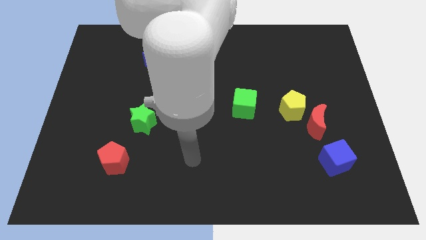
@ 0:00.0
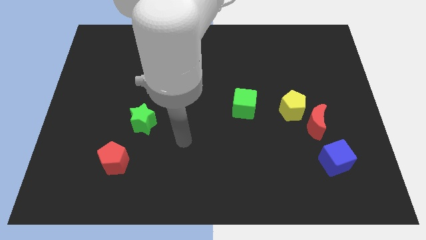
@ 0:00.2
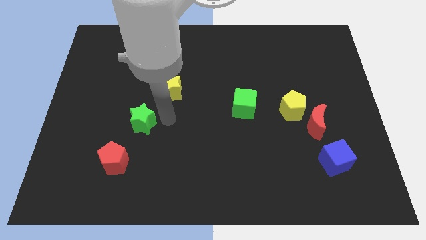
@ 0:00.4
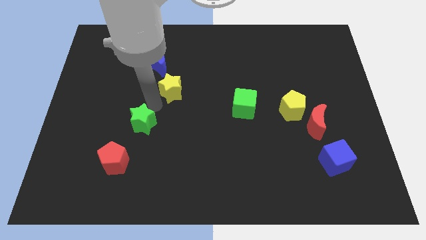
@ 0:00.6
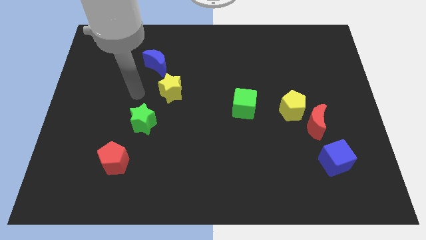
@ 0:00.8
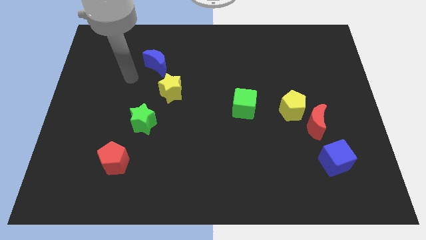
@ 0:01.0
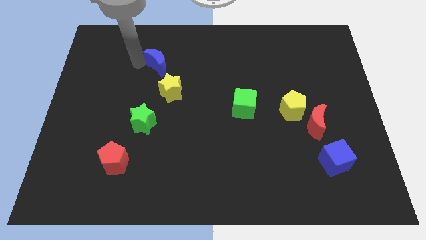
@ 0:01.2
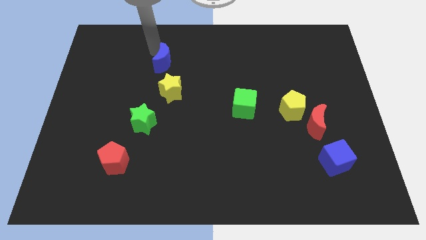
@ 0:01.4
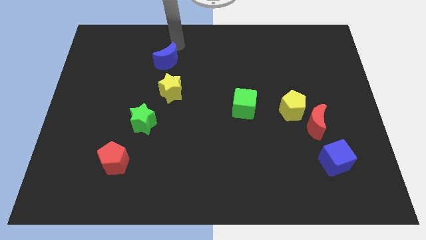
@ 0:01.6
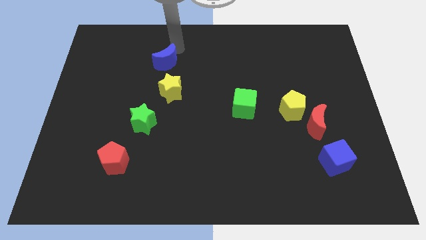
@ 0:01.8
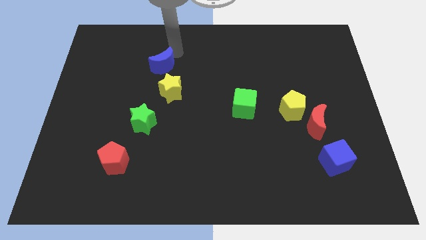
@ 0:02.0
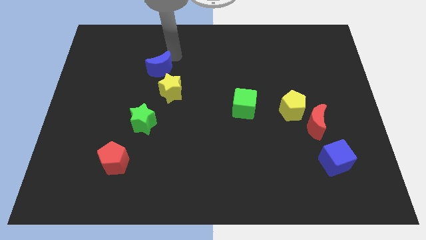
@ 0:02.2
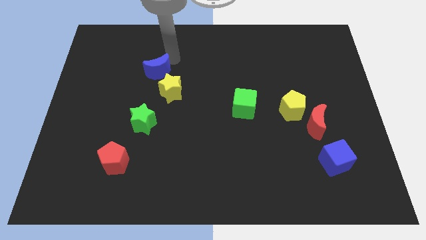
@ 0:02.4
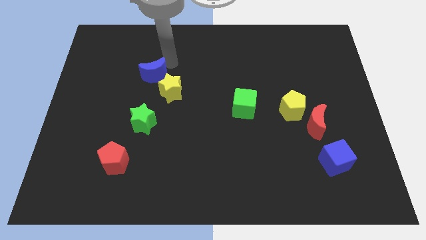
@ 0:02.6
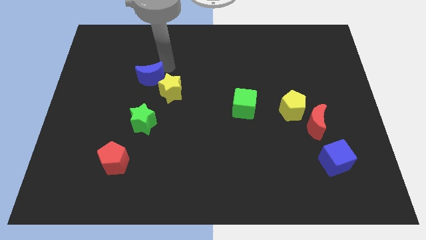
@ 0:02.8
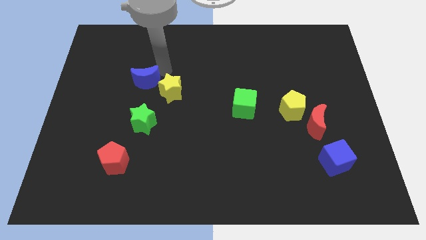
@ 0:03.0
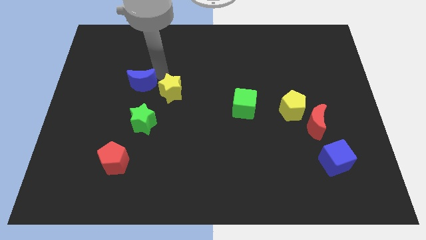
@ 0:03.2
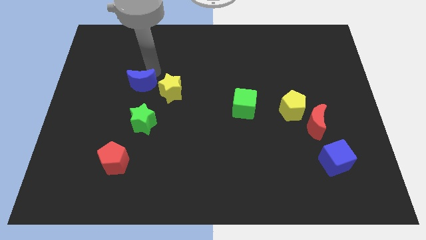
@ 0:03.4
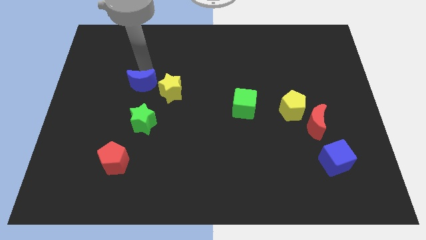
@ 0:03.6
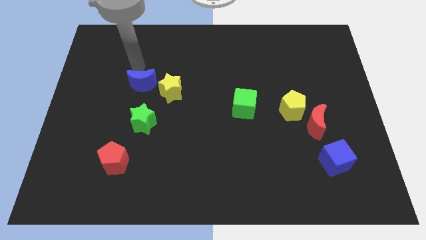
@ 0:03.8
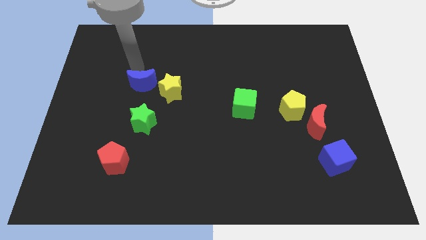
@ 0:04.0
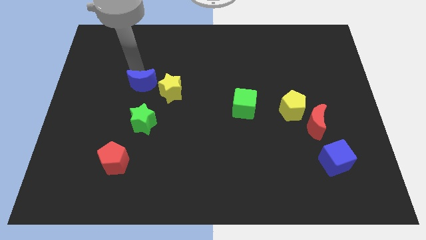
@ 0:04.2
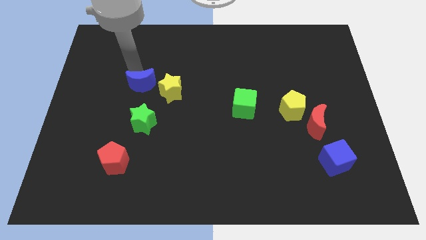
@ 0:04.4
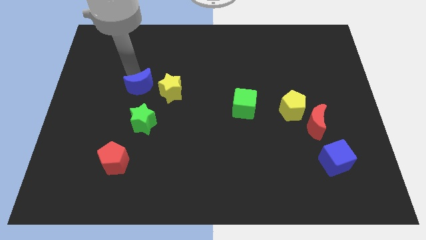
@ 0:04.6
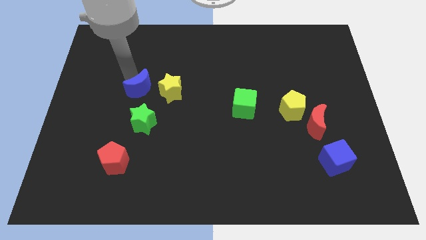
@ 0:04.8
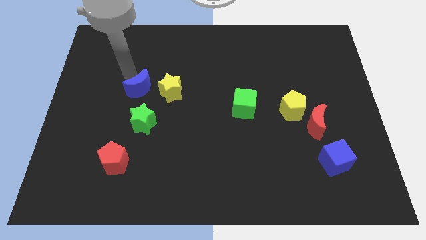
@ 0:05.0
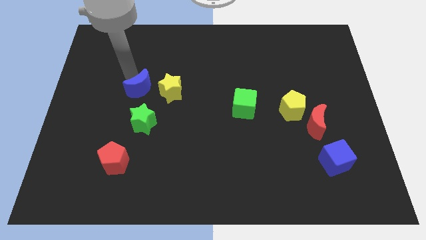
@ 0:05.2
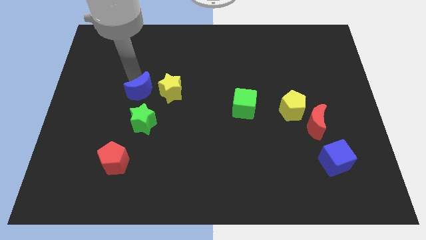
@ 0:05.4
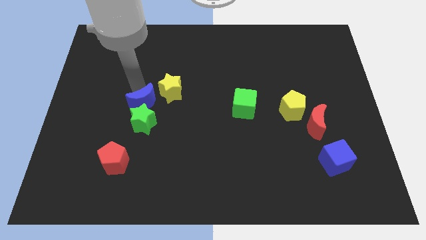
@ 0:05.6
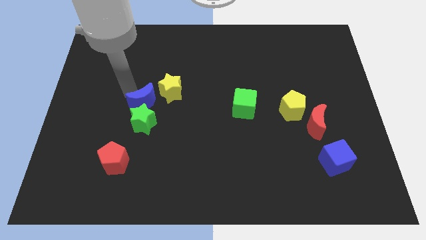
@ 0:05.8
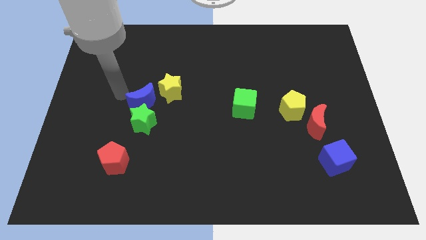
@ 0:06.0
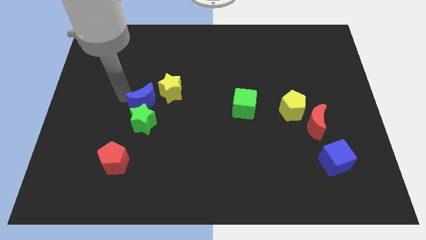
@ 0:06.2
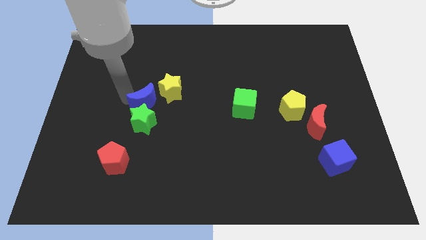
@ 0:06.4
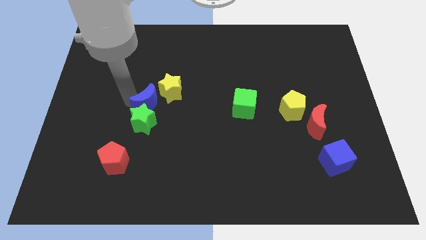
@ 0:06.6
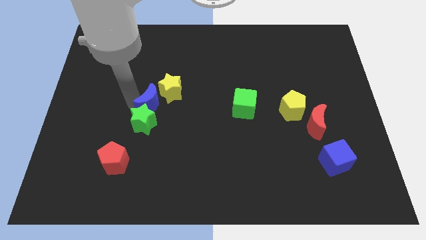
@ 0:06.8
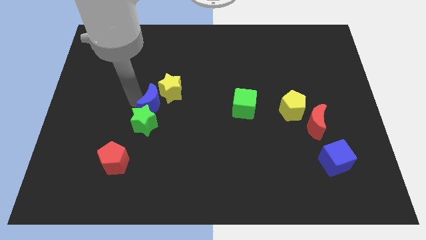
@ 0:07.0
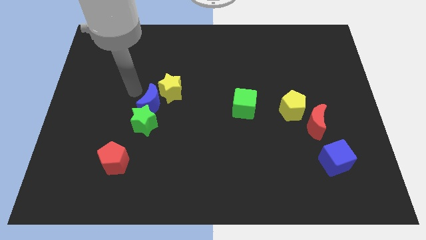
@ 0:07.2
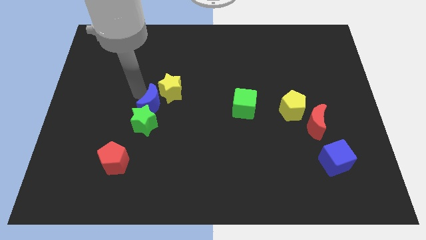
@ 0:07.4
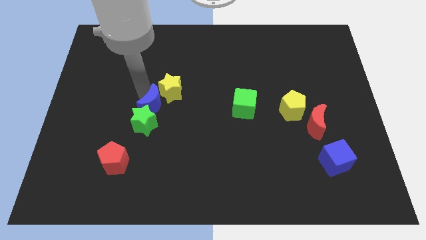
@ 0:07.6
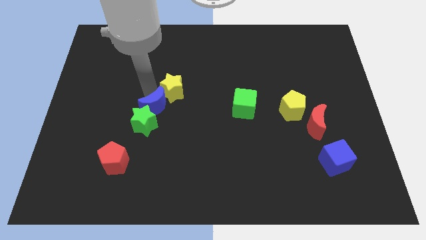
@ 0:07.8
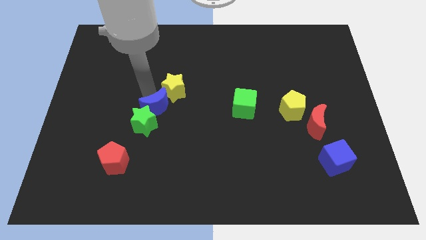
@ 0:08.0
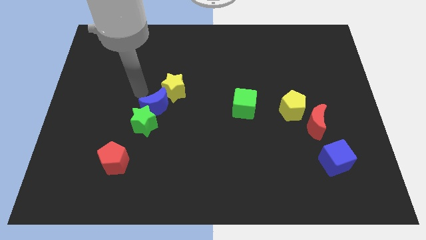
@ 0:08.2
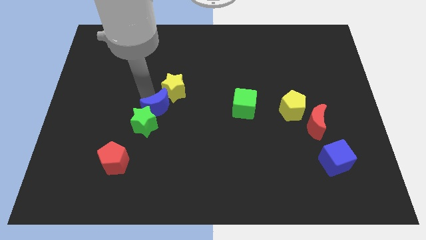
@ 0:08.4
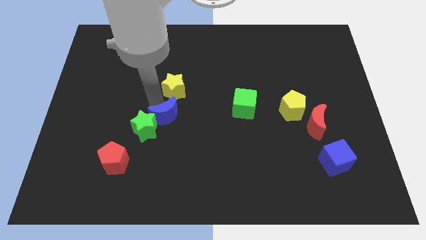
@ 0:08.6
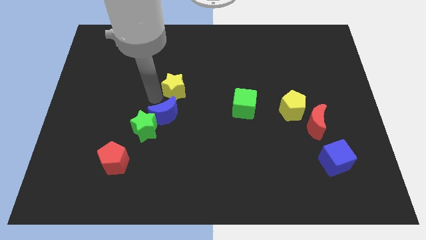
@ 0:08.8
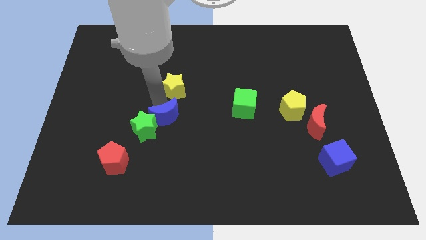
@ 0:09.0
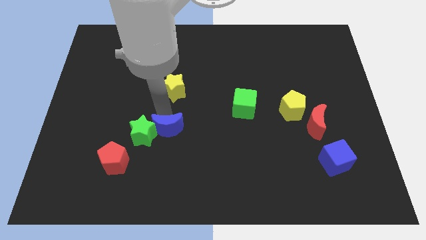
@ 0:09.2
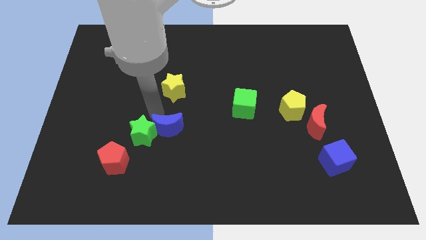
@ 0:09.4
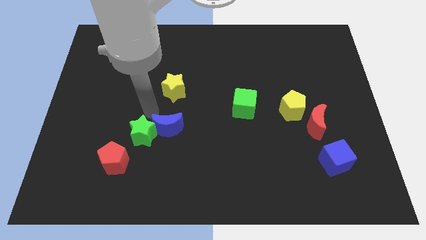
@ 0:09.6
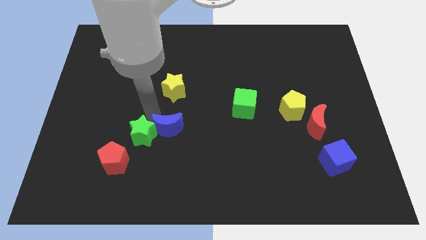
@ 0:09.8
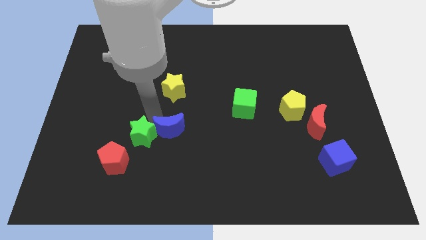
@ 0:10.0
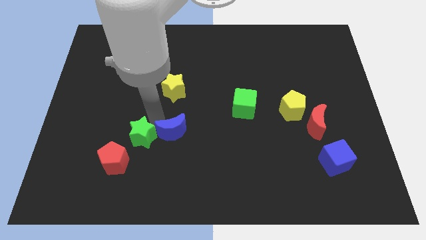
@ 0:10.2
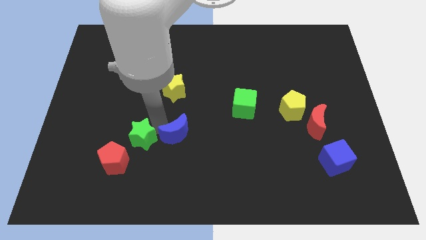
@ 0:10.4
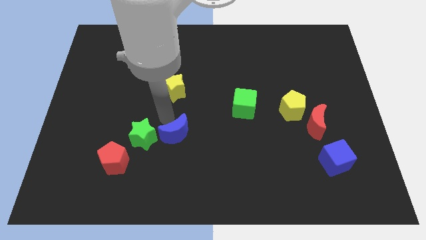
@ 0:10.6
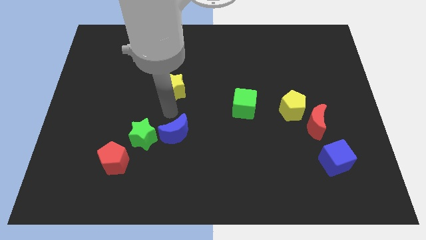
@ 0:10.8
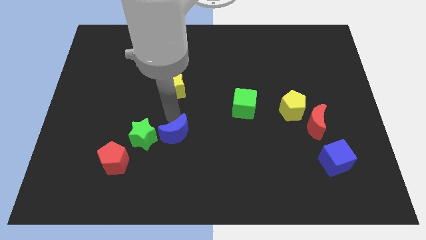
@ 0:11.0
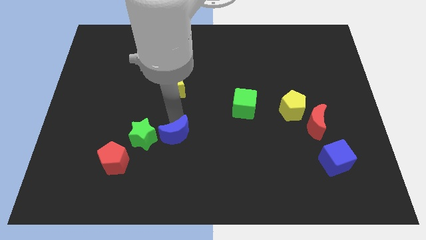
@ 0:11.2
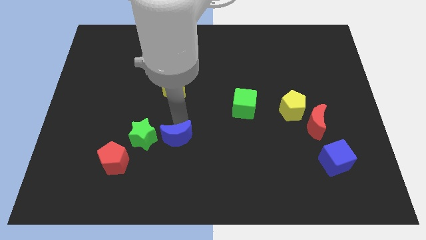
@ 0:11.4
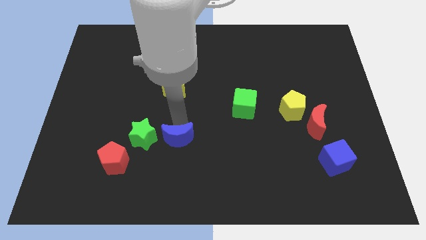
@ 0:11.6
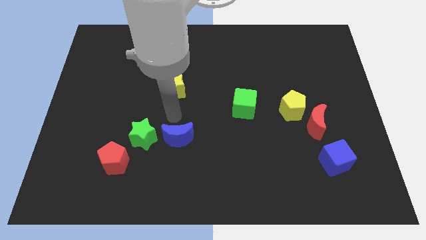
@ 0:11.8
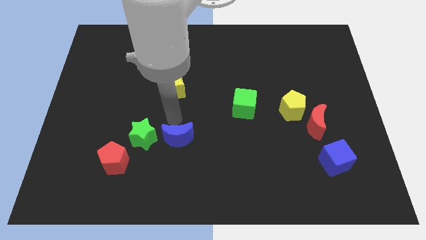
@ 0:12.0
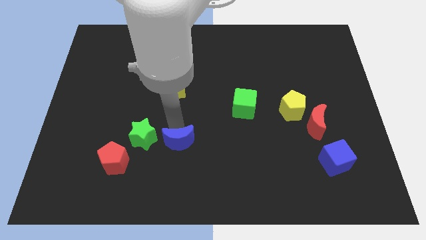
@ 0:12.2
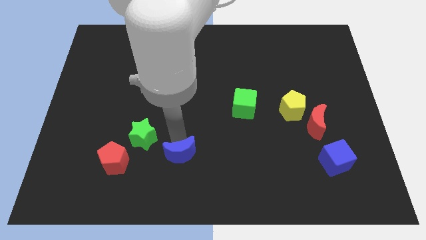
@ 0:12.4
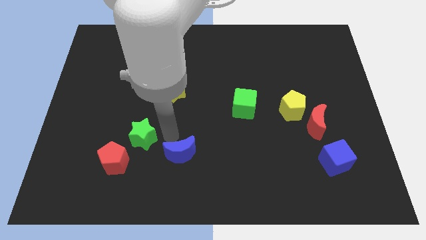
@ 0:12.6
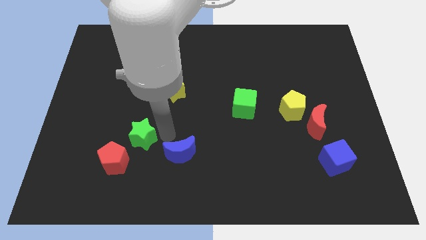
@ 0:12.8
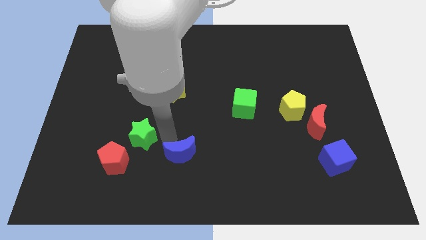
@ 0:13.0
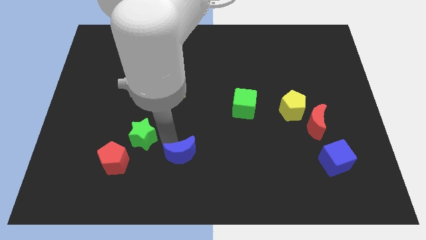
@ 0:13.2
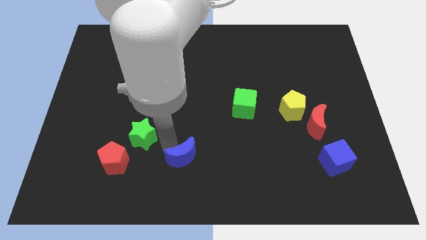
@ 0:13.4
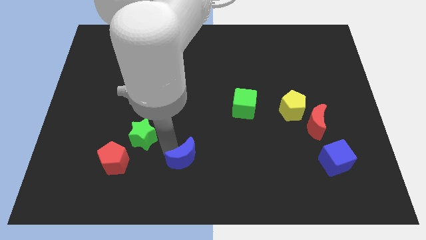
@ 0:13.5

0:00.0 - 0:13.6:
move the blue moon to the bottom
